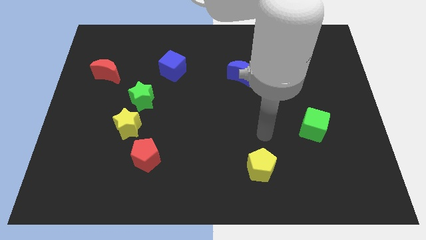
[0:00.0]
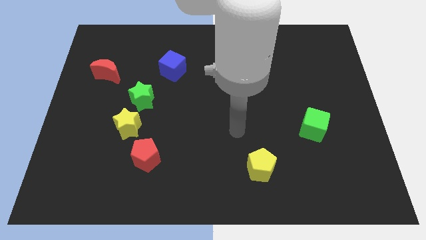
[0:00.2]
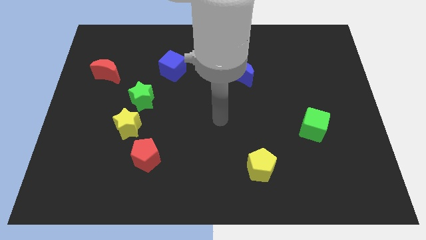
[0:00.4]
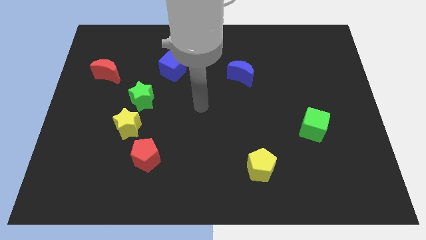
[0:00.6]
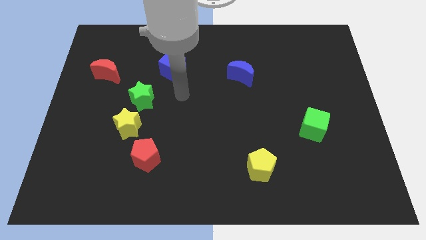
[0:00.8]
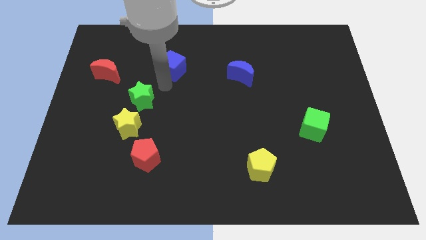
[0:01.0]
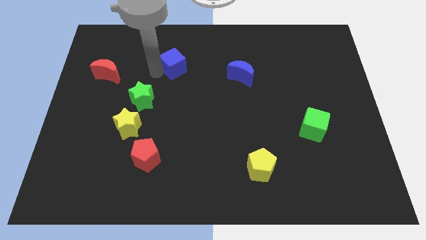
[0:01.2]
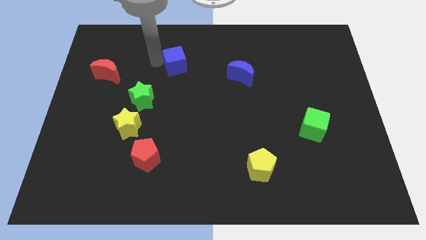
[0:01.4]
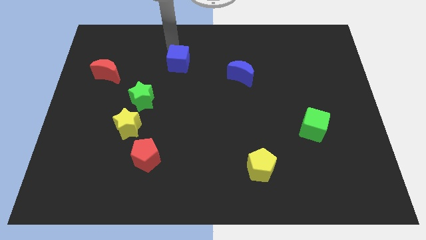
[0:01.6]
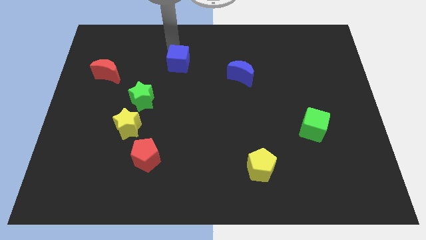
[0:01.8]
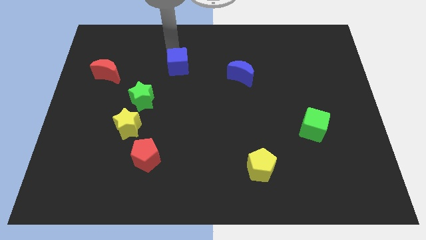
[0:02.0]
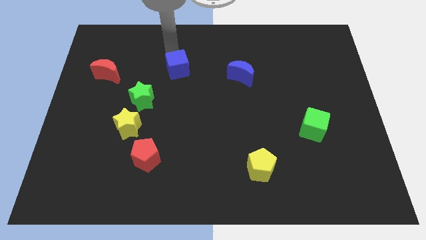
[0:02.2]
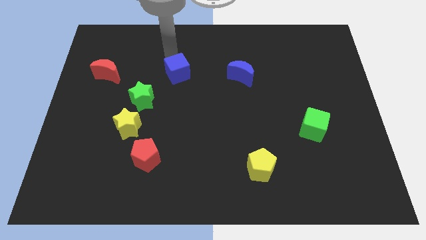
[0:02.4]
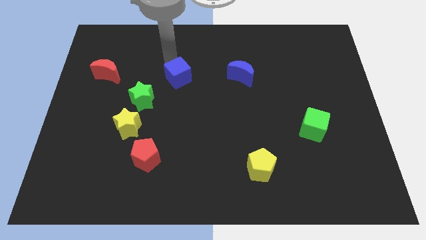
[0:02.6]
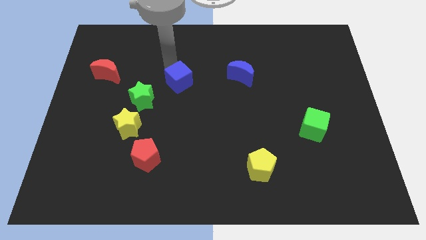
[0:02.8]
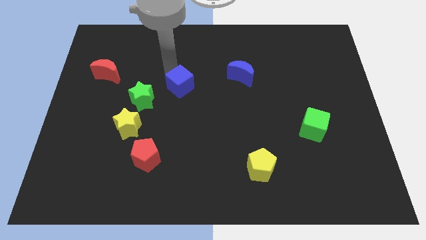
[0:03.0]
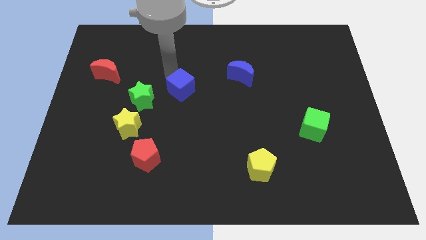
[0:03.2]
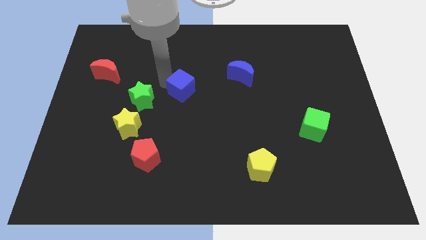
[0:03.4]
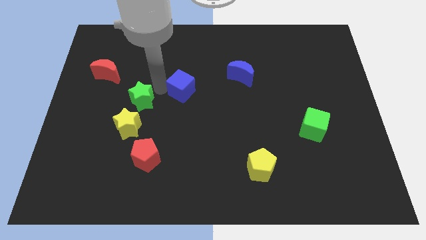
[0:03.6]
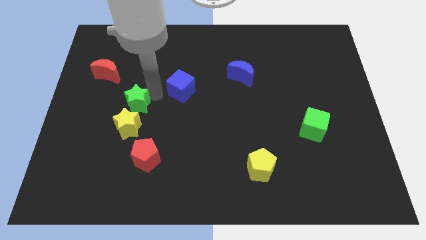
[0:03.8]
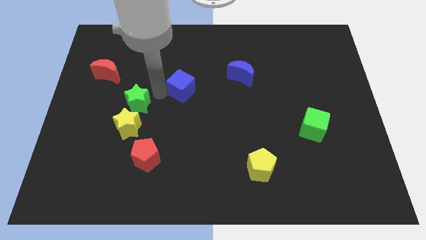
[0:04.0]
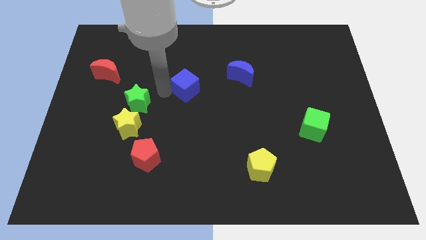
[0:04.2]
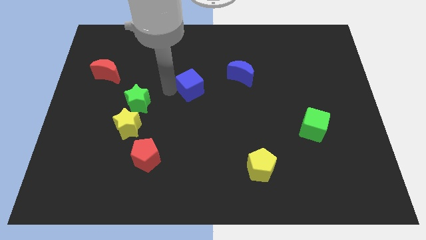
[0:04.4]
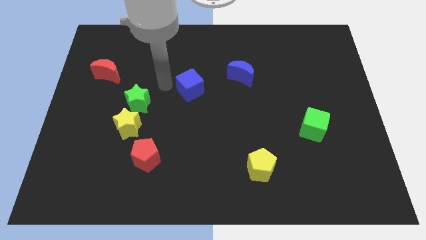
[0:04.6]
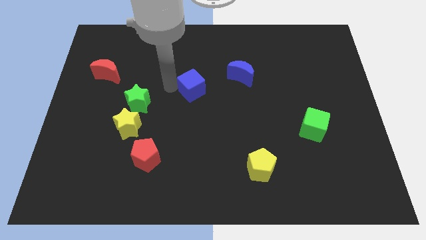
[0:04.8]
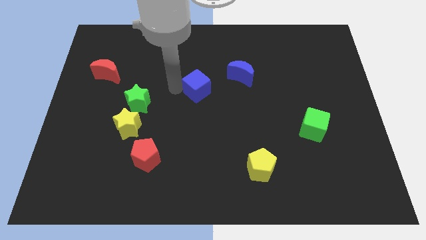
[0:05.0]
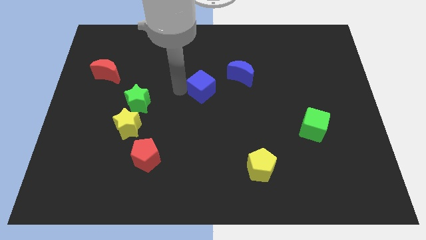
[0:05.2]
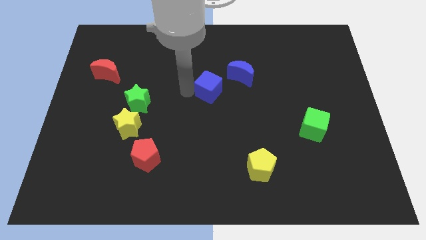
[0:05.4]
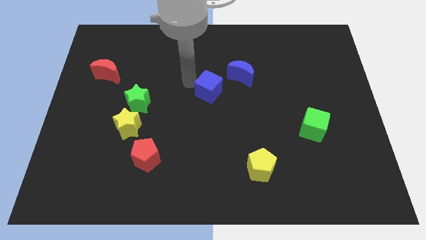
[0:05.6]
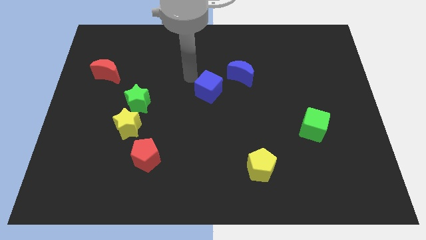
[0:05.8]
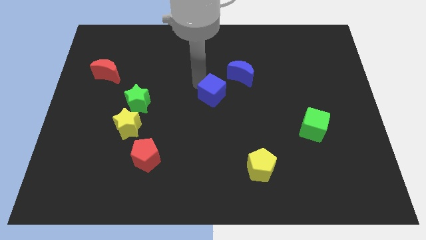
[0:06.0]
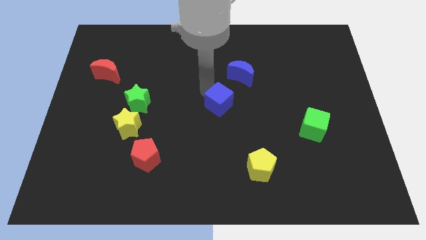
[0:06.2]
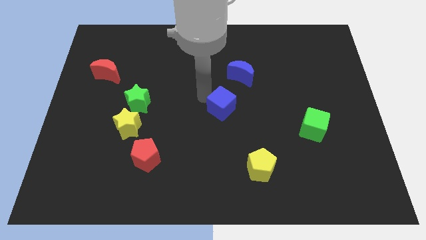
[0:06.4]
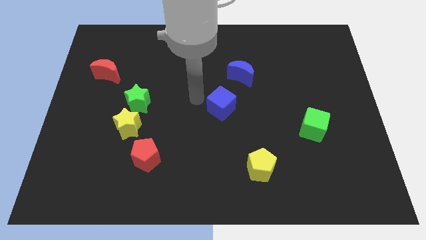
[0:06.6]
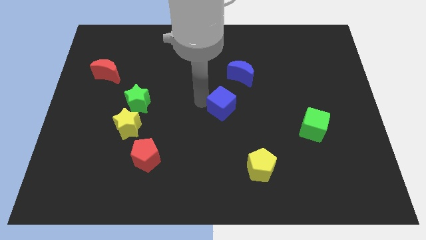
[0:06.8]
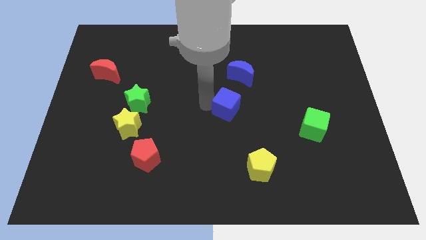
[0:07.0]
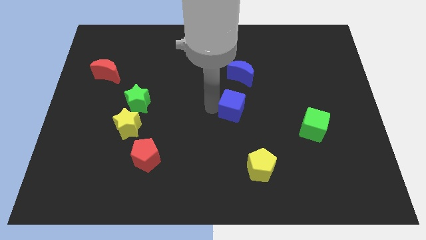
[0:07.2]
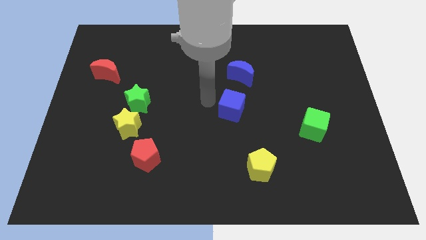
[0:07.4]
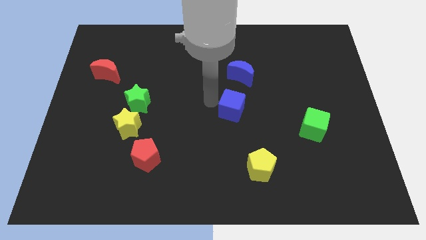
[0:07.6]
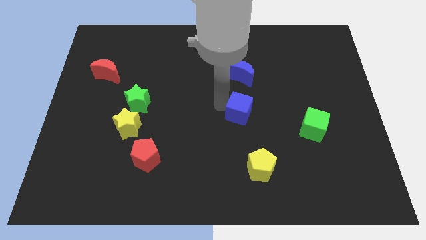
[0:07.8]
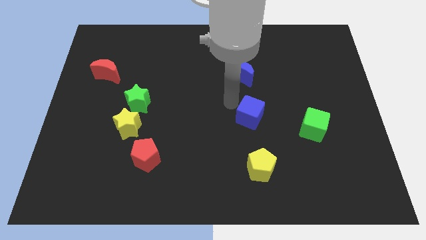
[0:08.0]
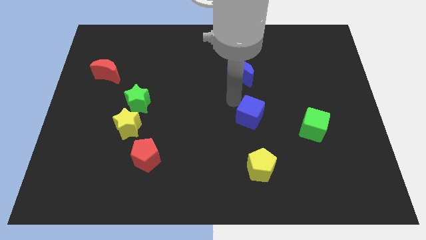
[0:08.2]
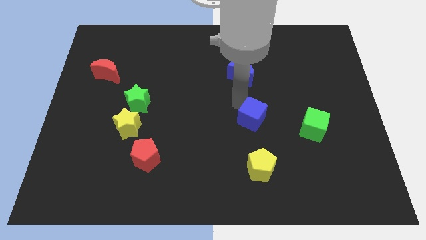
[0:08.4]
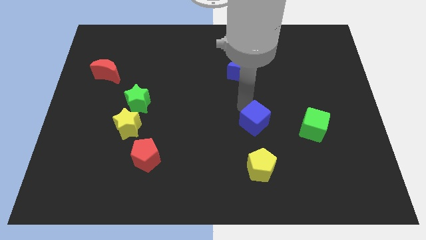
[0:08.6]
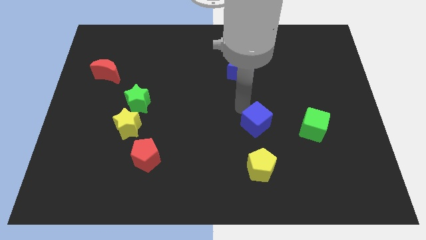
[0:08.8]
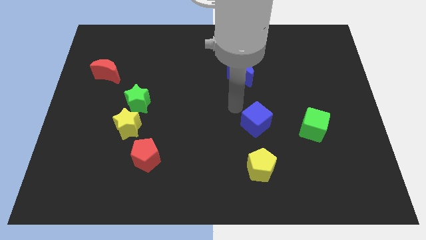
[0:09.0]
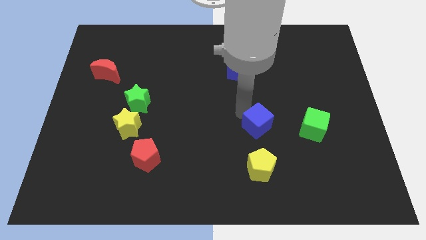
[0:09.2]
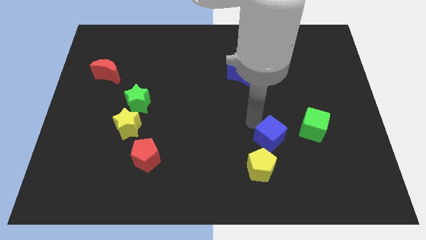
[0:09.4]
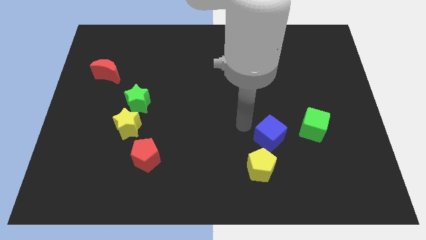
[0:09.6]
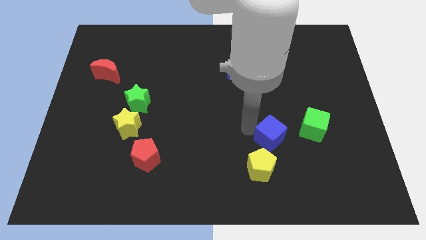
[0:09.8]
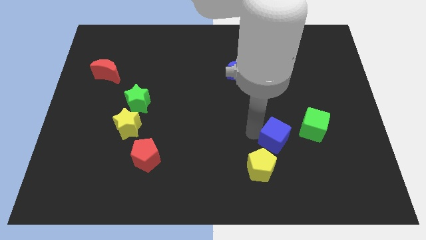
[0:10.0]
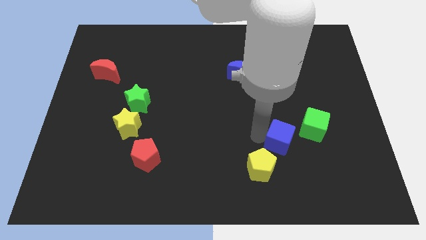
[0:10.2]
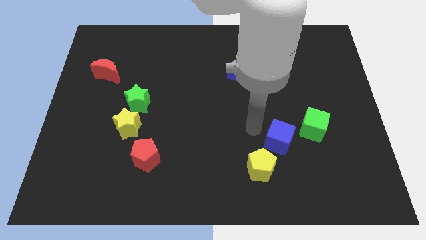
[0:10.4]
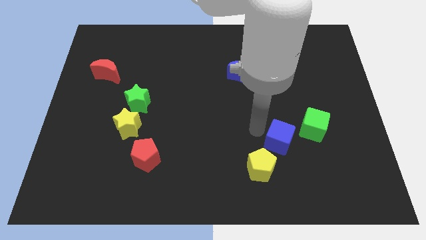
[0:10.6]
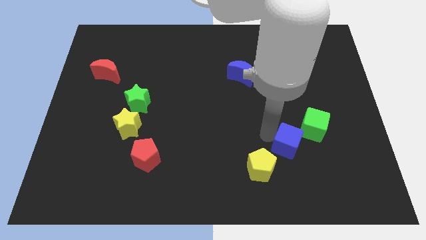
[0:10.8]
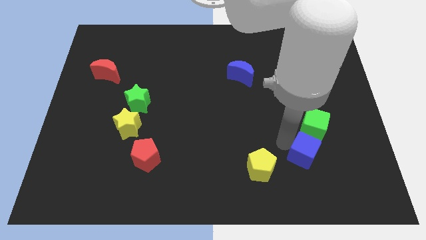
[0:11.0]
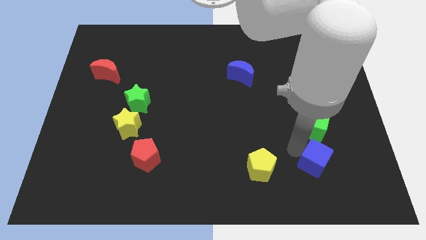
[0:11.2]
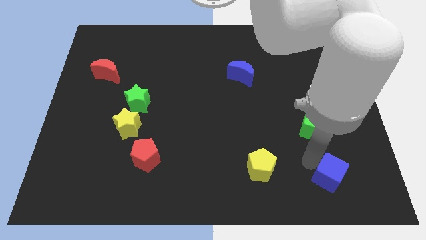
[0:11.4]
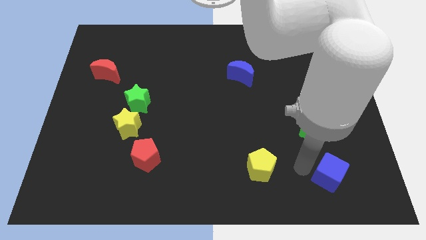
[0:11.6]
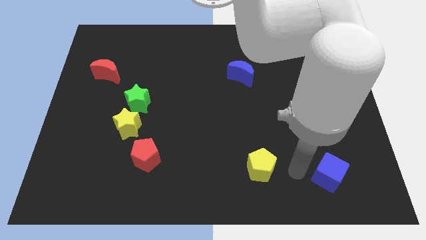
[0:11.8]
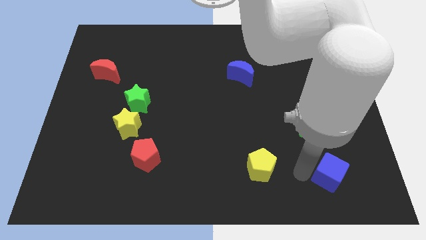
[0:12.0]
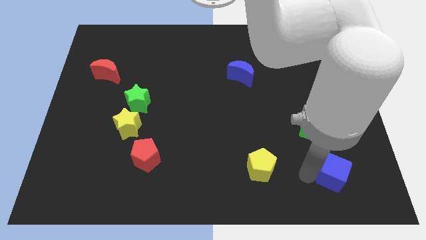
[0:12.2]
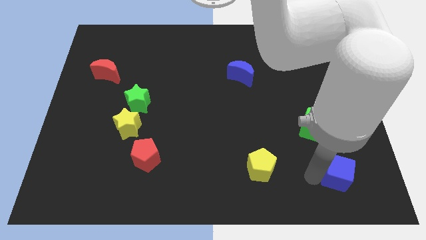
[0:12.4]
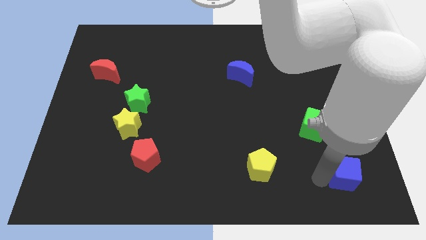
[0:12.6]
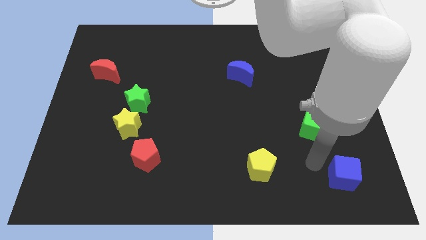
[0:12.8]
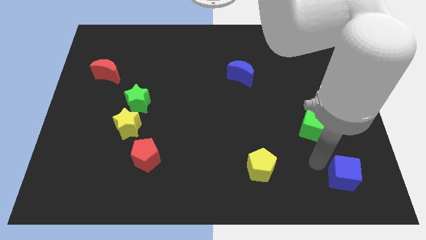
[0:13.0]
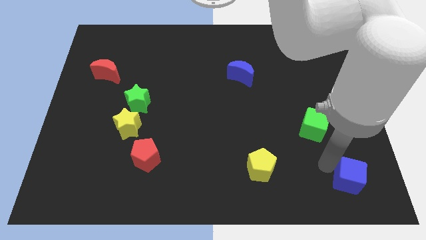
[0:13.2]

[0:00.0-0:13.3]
slide the blue cube to the bottom right corner
